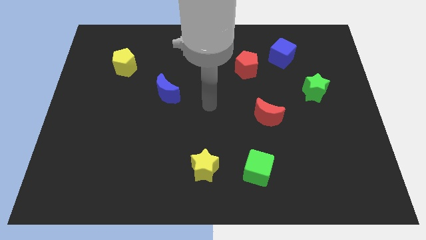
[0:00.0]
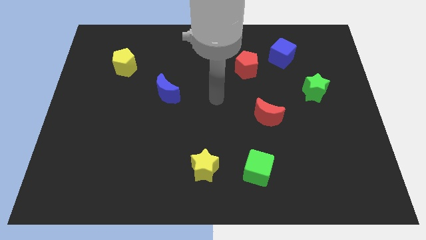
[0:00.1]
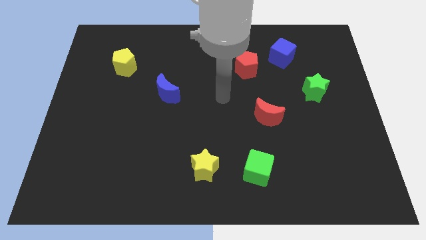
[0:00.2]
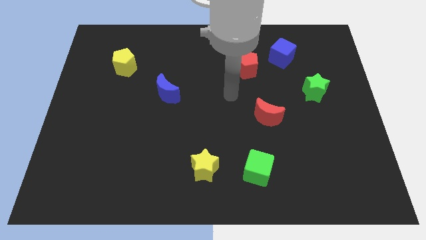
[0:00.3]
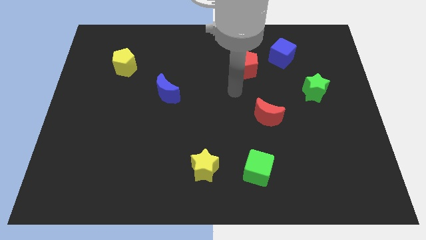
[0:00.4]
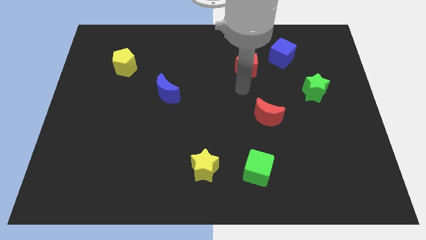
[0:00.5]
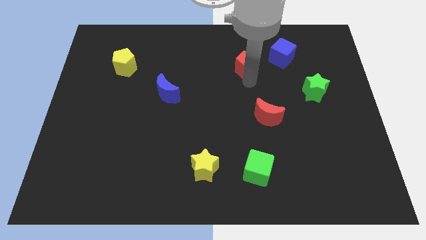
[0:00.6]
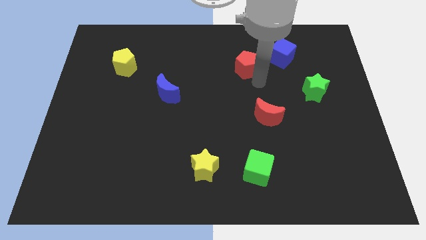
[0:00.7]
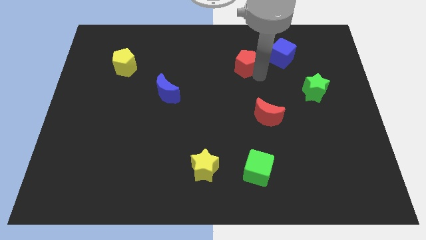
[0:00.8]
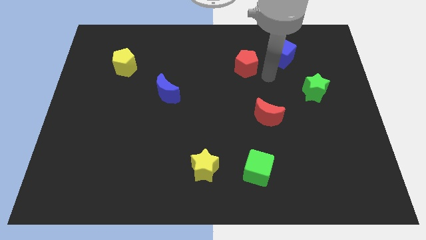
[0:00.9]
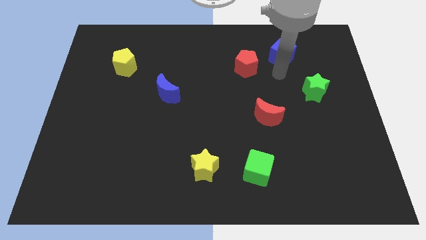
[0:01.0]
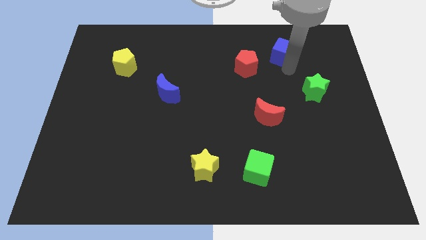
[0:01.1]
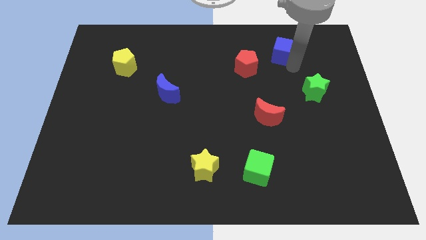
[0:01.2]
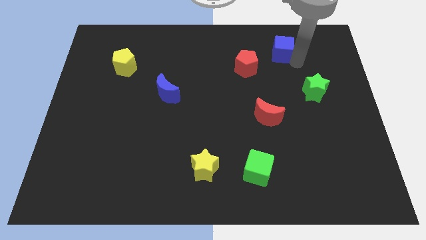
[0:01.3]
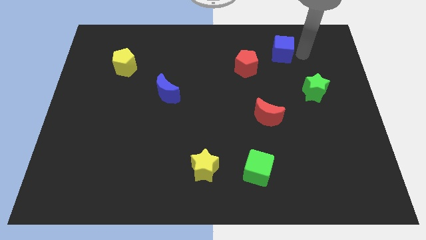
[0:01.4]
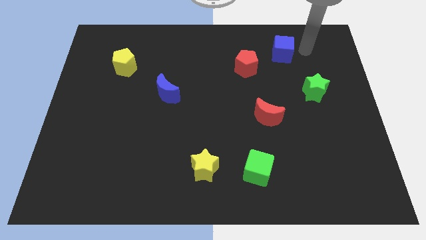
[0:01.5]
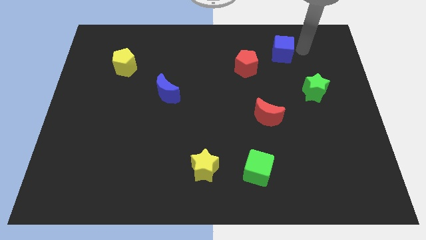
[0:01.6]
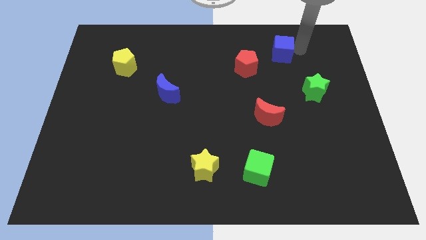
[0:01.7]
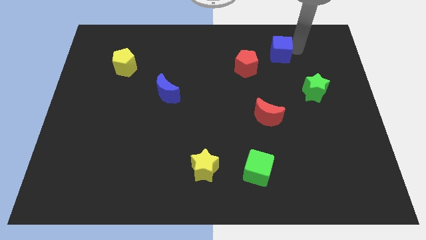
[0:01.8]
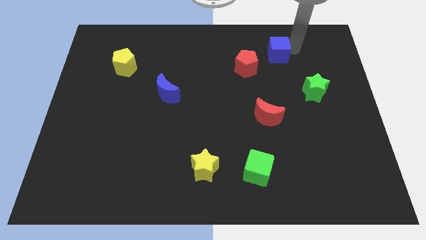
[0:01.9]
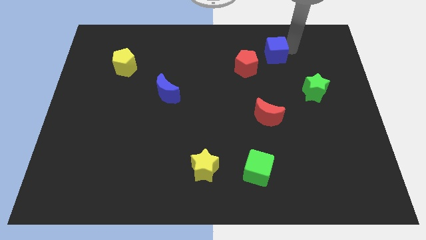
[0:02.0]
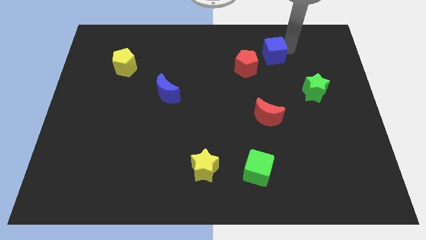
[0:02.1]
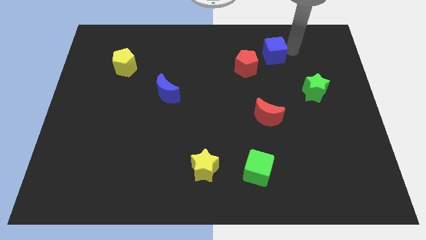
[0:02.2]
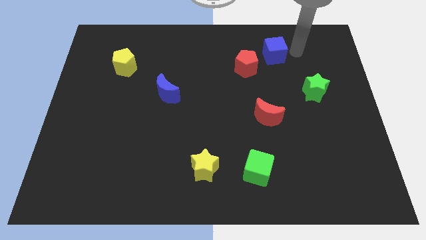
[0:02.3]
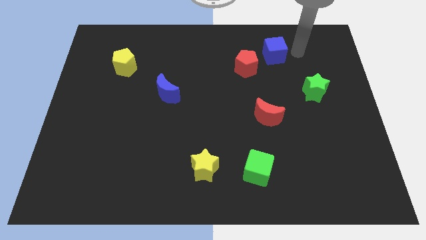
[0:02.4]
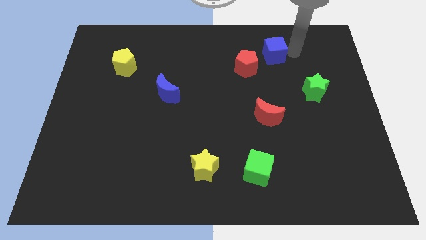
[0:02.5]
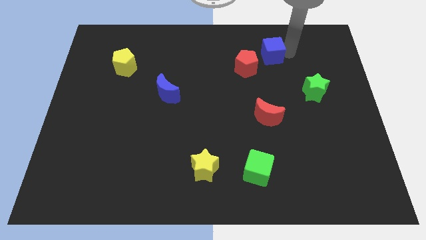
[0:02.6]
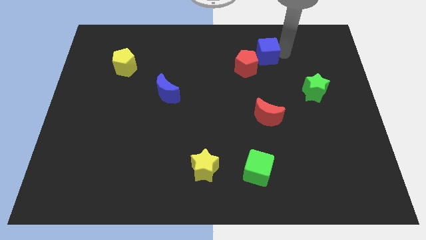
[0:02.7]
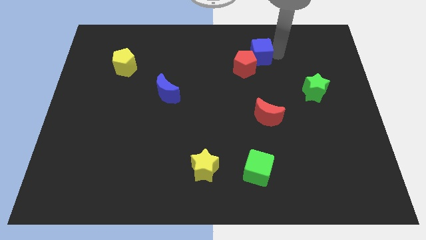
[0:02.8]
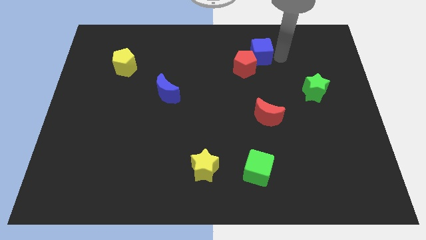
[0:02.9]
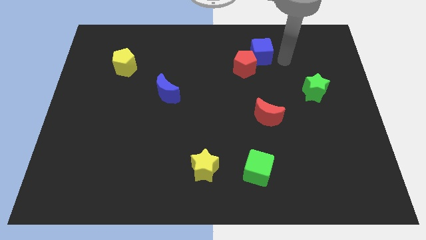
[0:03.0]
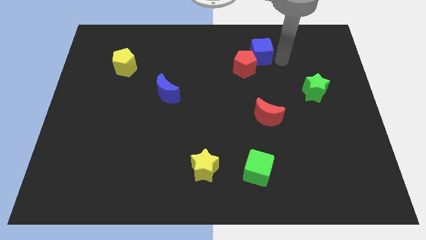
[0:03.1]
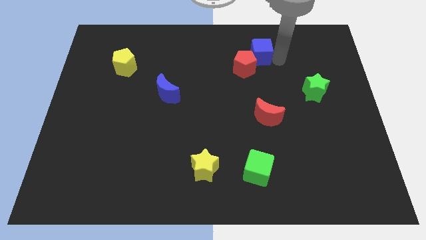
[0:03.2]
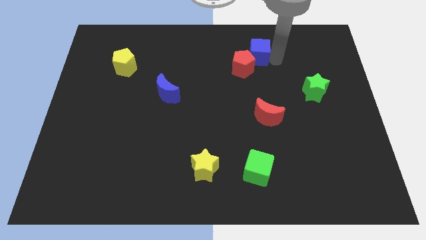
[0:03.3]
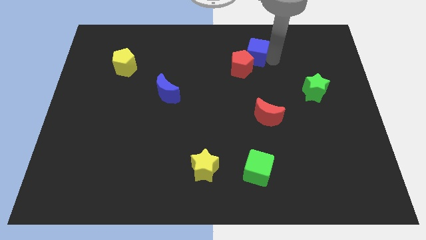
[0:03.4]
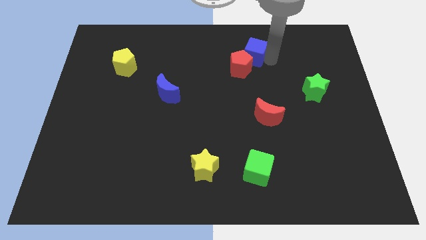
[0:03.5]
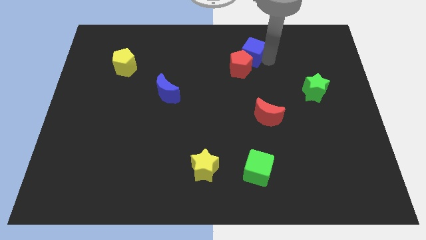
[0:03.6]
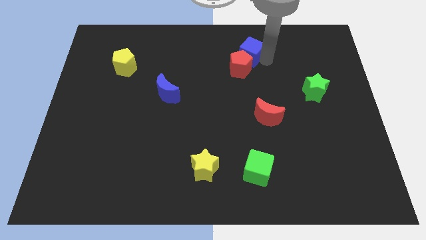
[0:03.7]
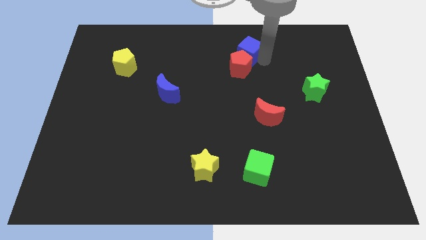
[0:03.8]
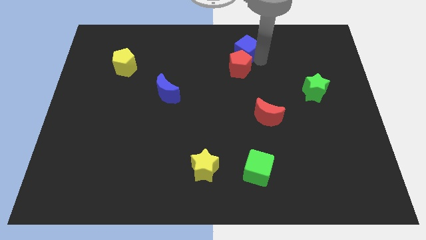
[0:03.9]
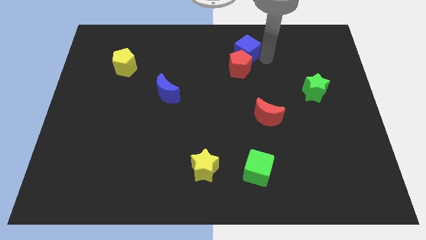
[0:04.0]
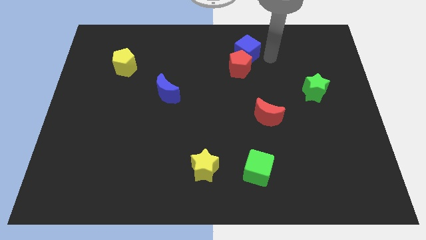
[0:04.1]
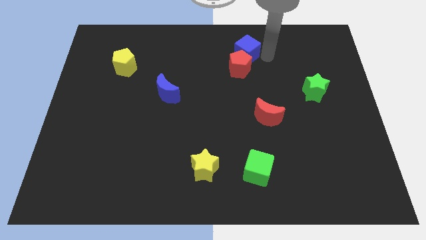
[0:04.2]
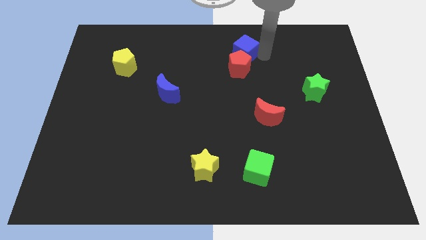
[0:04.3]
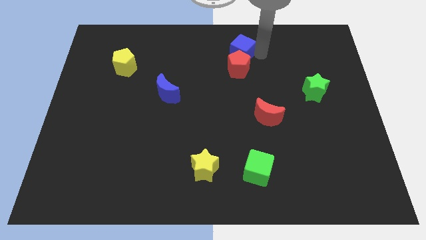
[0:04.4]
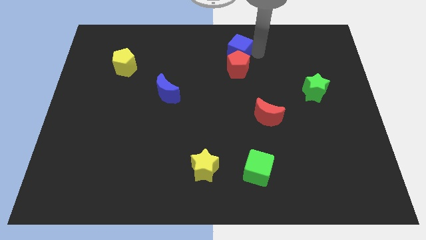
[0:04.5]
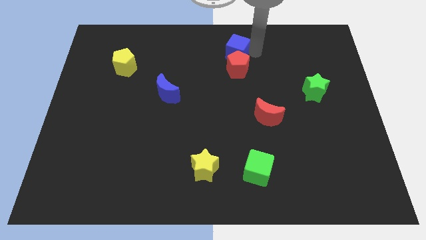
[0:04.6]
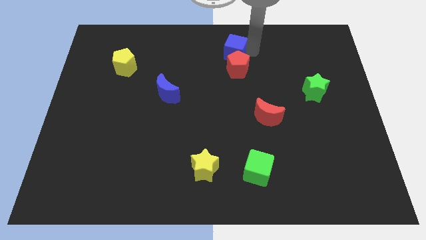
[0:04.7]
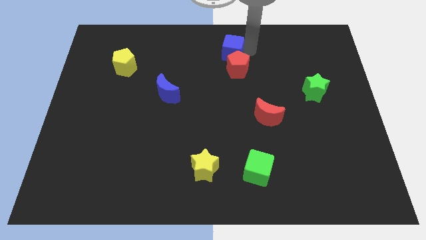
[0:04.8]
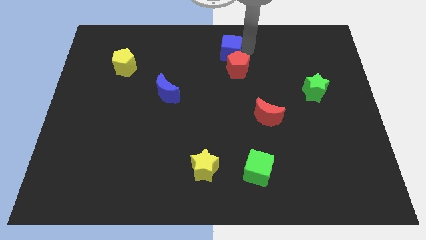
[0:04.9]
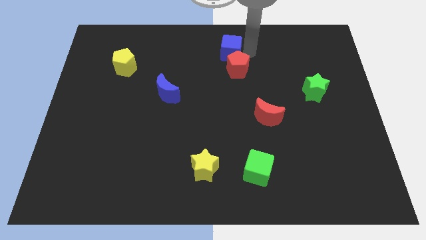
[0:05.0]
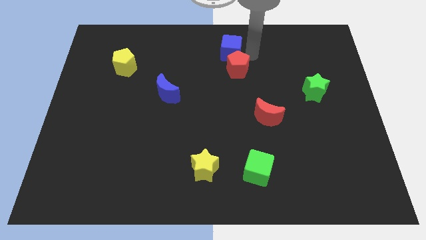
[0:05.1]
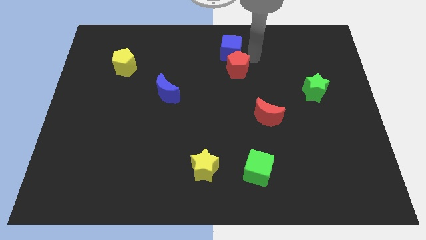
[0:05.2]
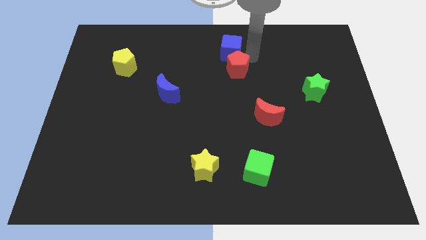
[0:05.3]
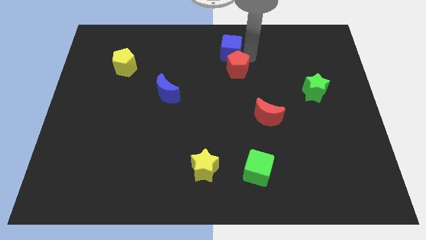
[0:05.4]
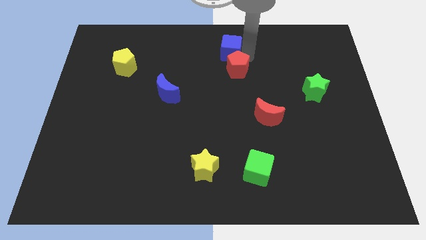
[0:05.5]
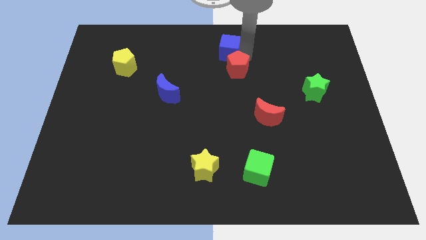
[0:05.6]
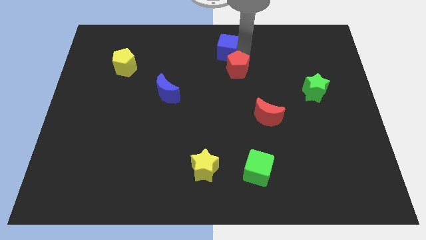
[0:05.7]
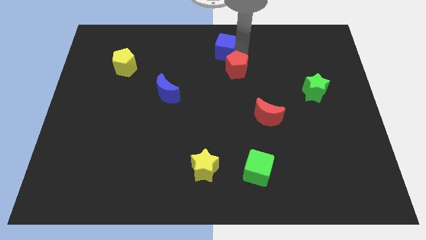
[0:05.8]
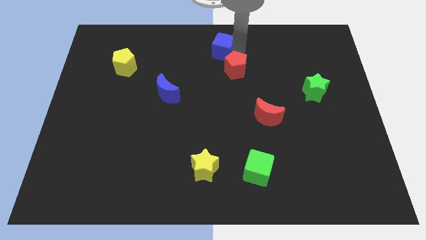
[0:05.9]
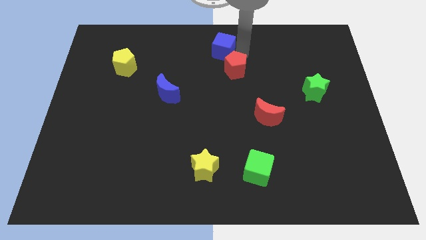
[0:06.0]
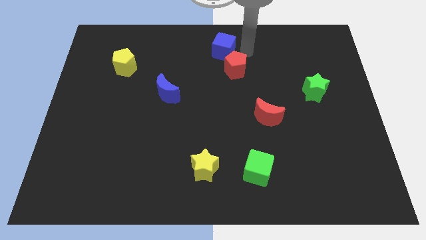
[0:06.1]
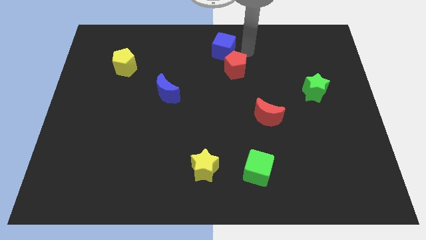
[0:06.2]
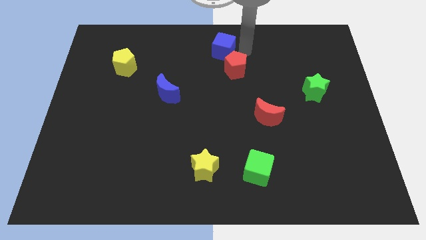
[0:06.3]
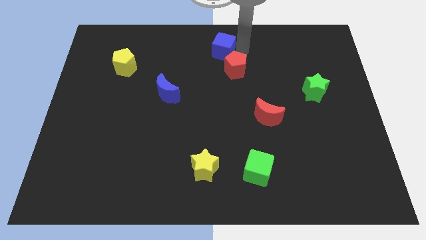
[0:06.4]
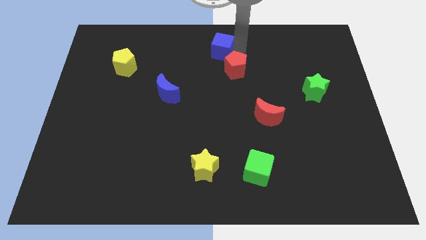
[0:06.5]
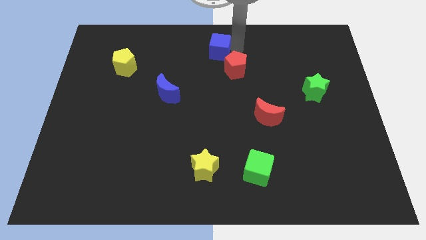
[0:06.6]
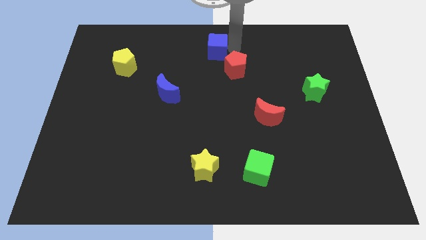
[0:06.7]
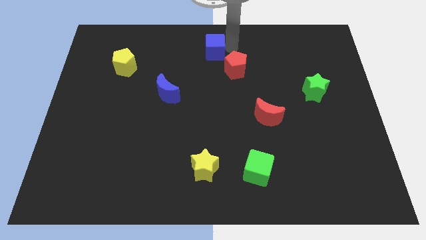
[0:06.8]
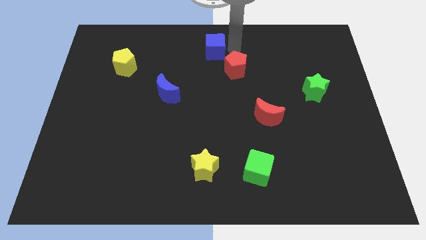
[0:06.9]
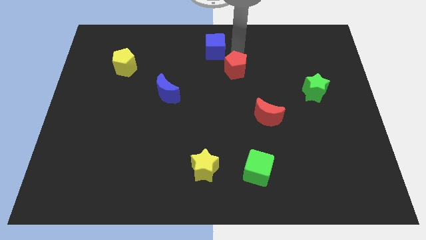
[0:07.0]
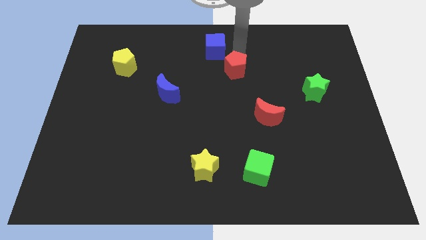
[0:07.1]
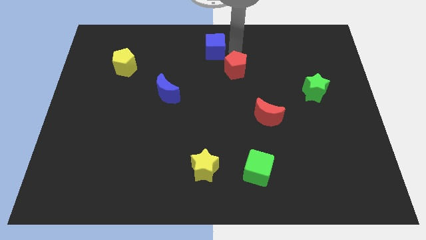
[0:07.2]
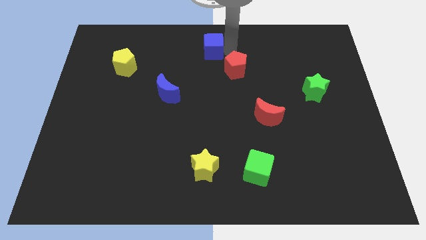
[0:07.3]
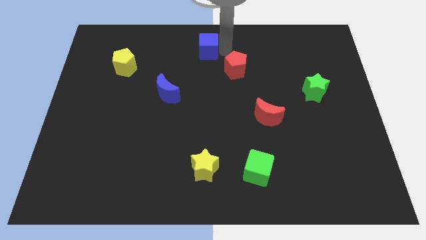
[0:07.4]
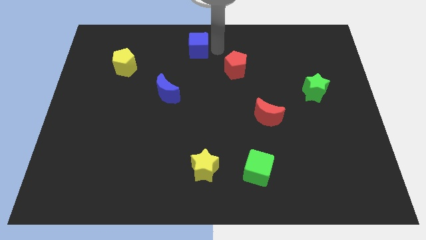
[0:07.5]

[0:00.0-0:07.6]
slide the blue cube to the left

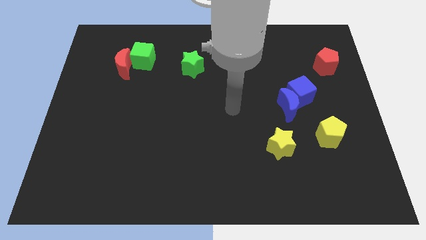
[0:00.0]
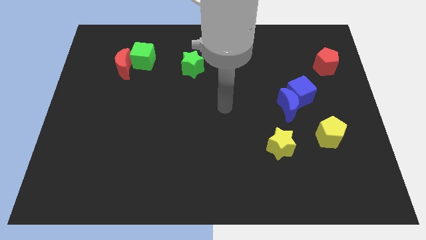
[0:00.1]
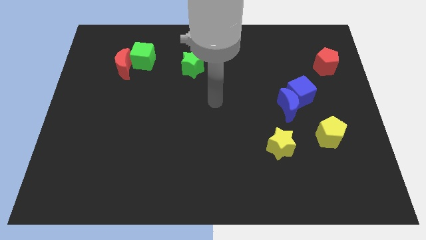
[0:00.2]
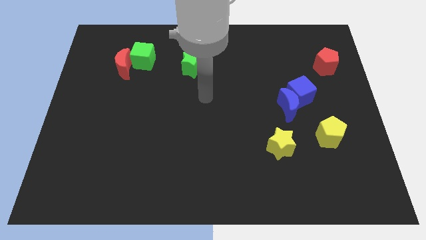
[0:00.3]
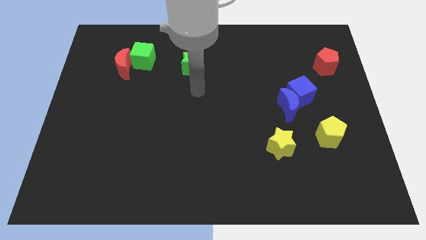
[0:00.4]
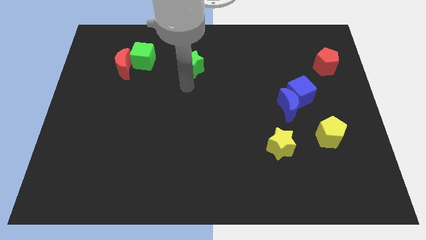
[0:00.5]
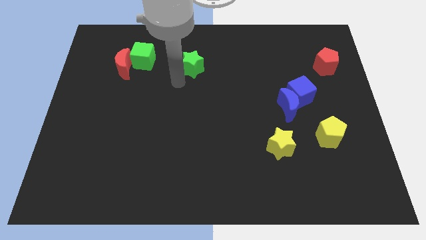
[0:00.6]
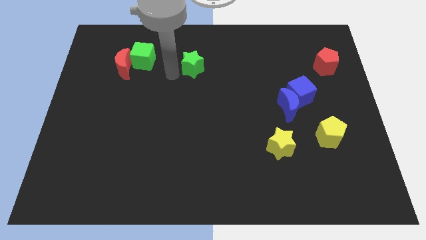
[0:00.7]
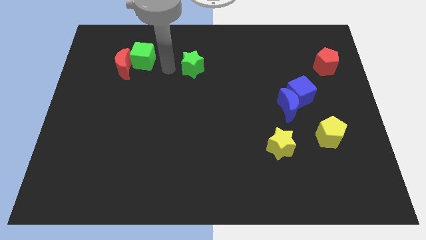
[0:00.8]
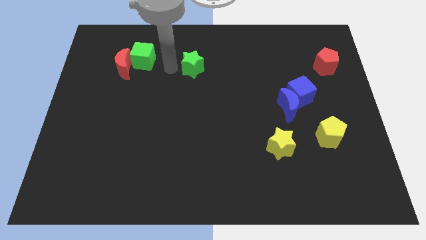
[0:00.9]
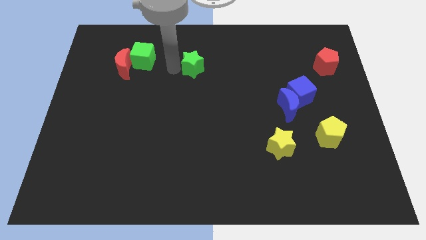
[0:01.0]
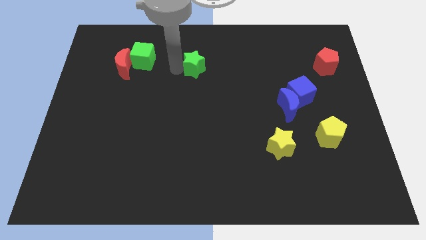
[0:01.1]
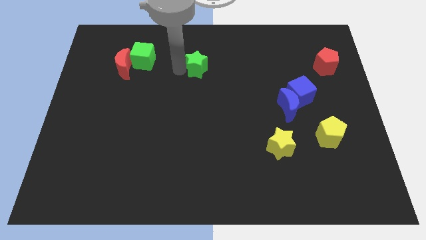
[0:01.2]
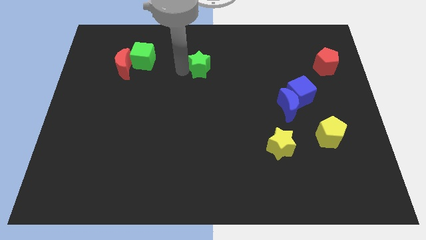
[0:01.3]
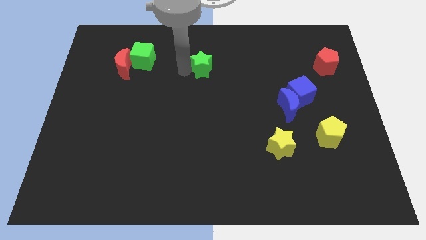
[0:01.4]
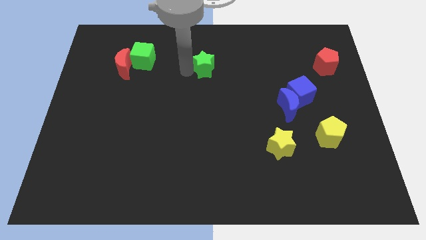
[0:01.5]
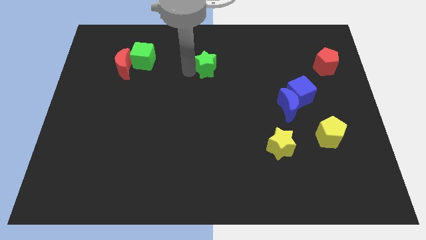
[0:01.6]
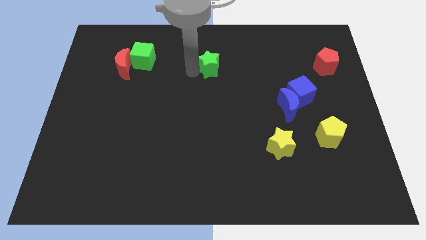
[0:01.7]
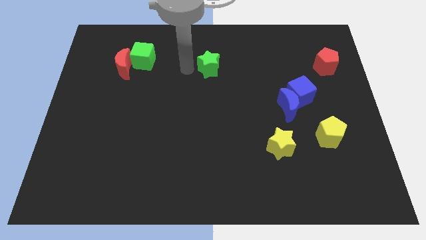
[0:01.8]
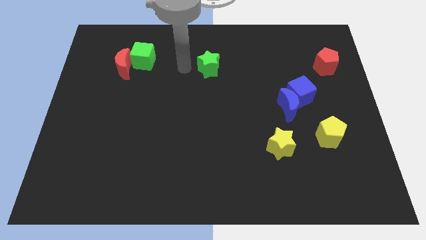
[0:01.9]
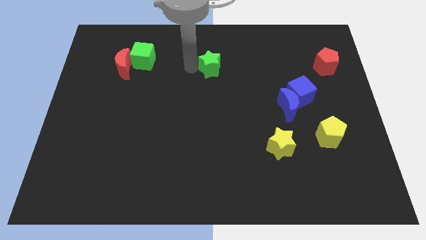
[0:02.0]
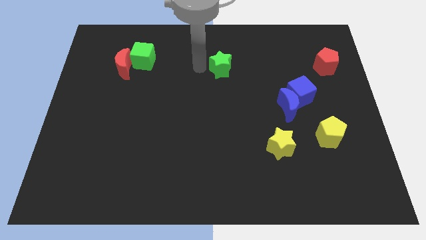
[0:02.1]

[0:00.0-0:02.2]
push the green star right a little
